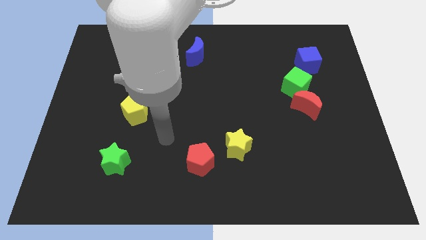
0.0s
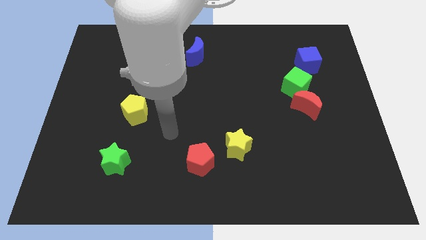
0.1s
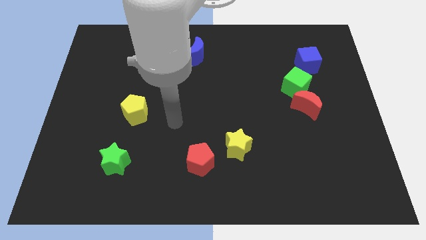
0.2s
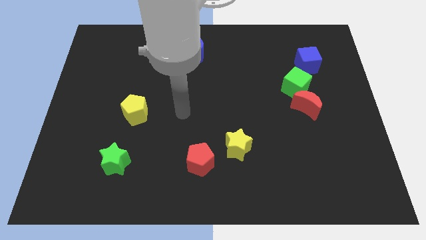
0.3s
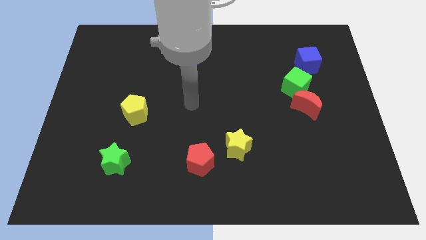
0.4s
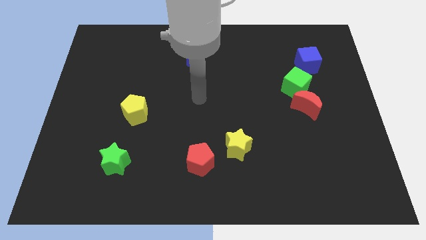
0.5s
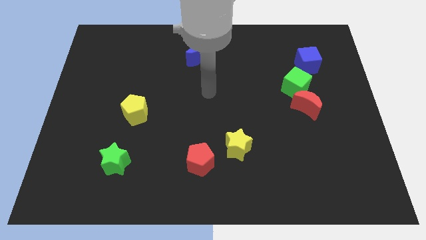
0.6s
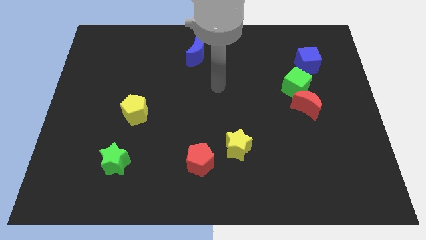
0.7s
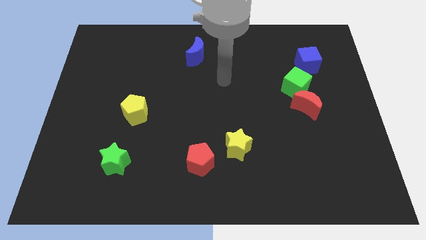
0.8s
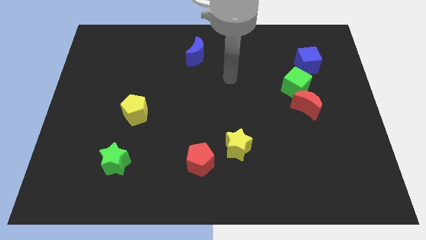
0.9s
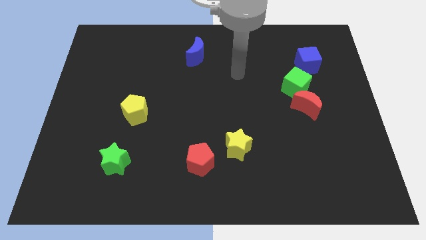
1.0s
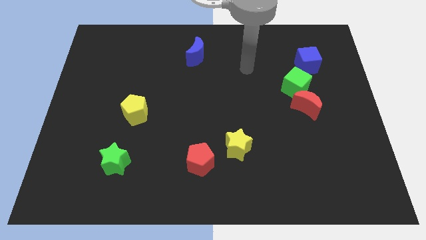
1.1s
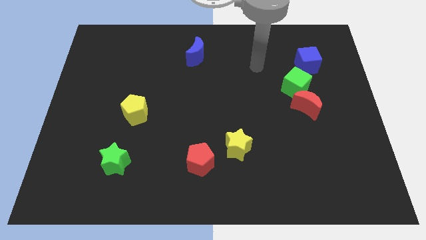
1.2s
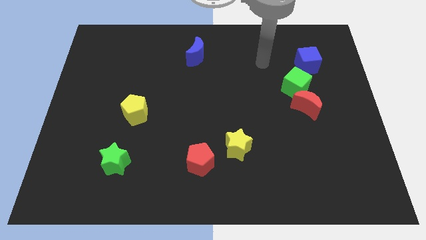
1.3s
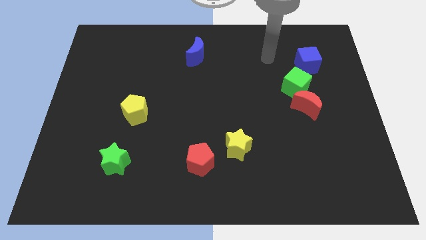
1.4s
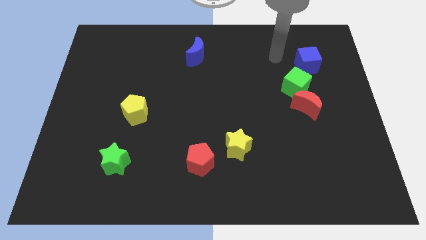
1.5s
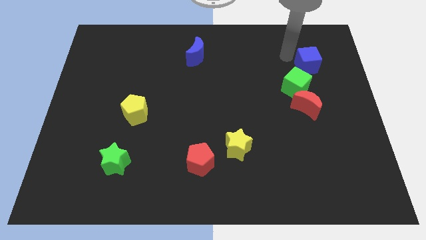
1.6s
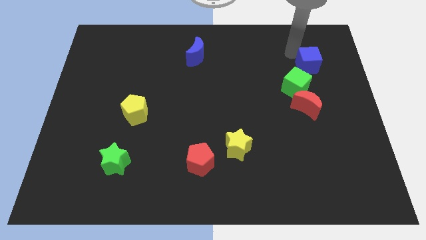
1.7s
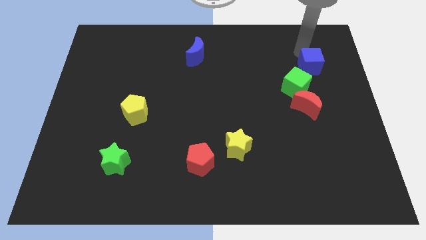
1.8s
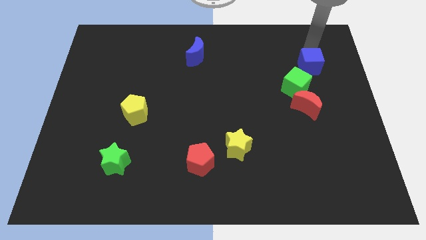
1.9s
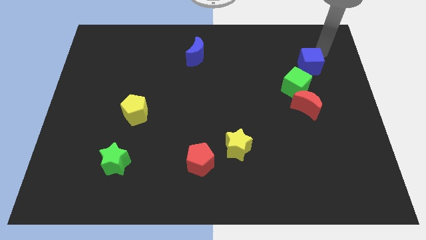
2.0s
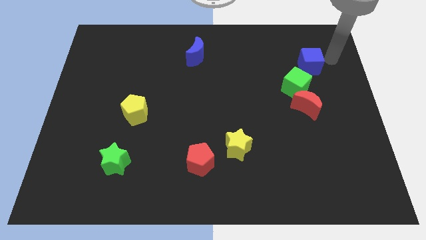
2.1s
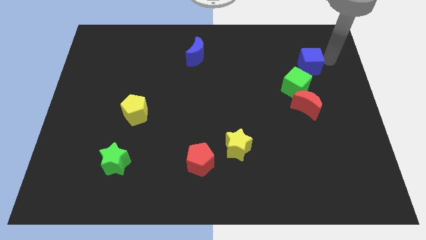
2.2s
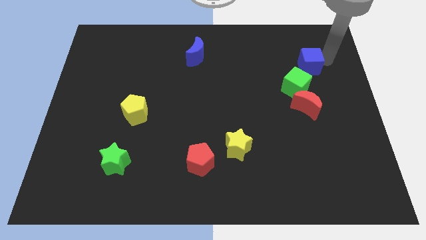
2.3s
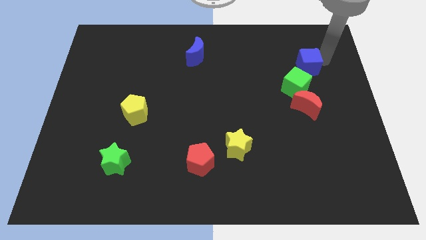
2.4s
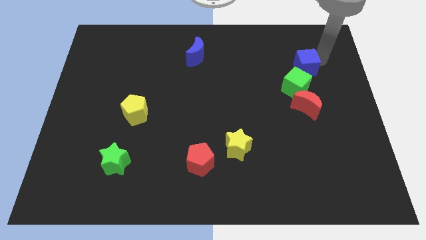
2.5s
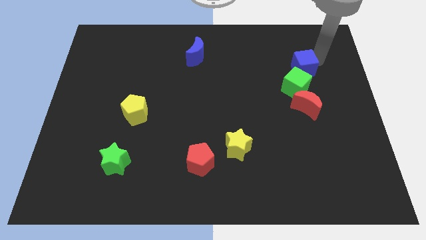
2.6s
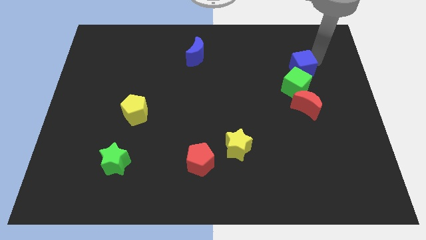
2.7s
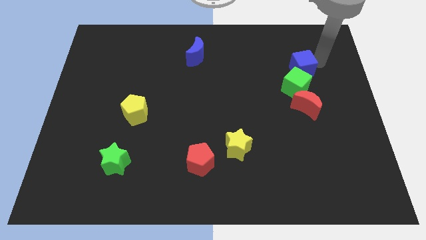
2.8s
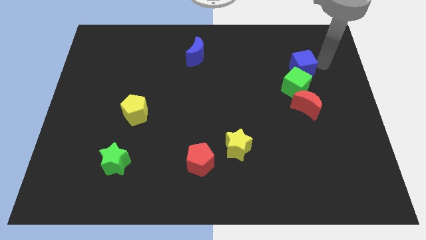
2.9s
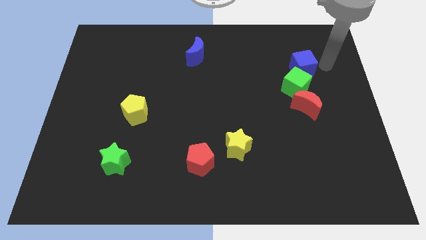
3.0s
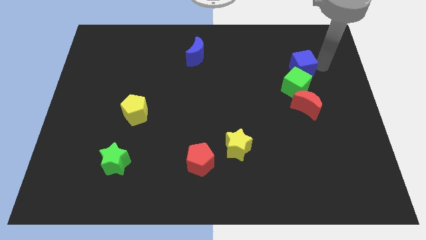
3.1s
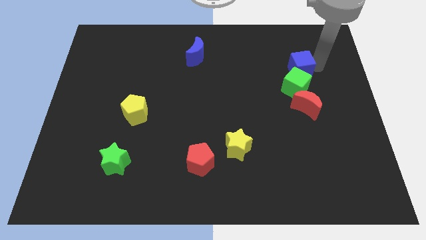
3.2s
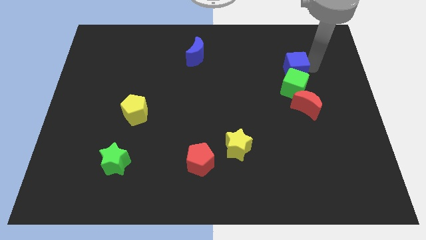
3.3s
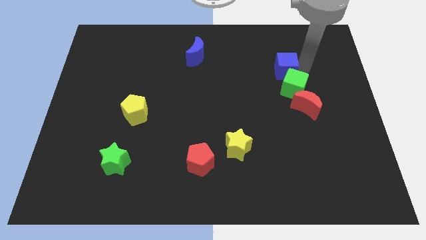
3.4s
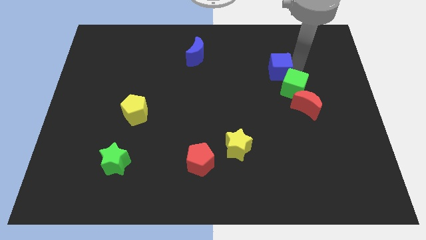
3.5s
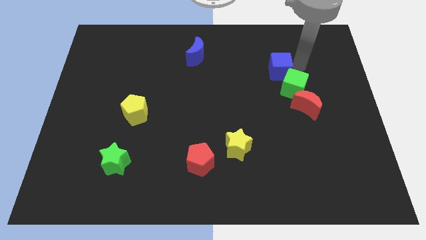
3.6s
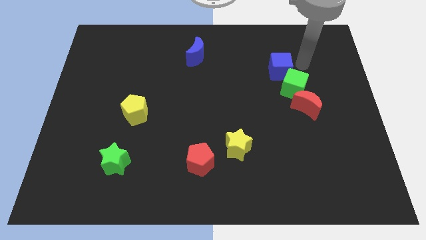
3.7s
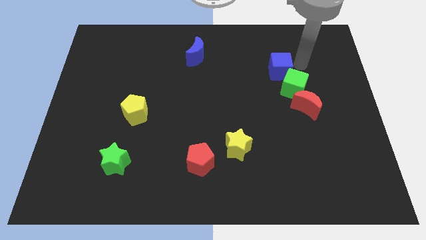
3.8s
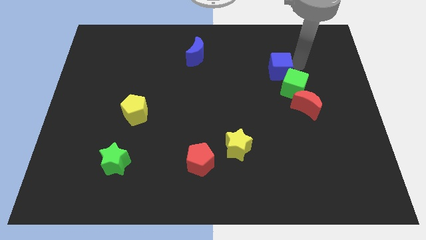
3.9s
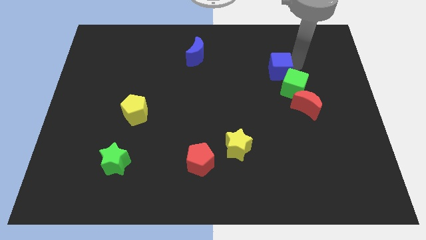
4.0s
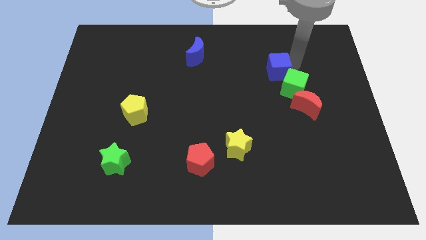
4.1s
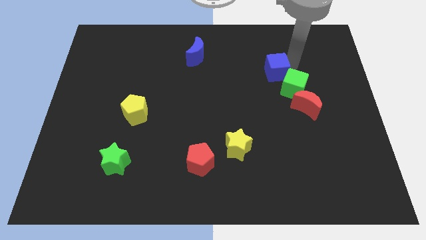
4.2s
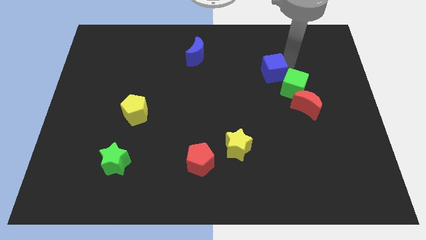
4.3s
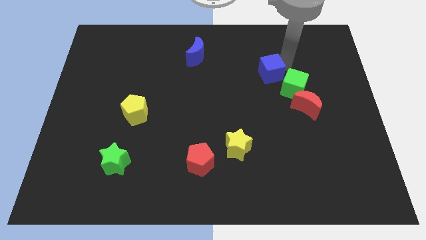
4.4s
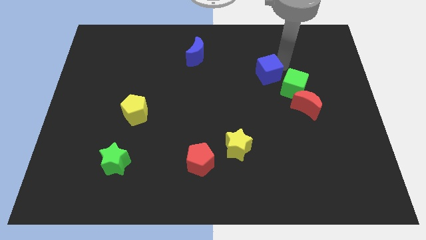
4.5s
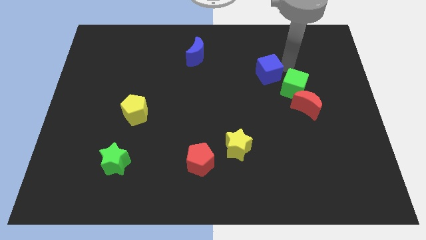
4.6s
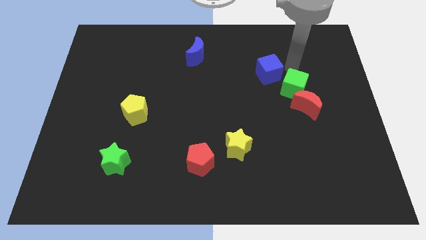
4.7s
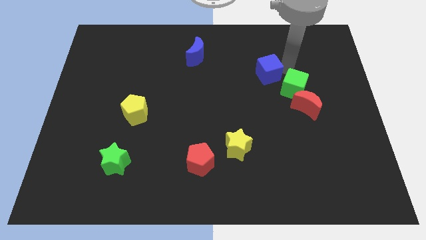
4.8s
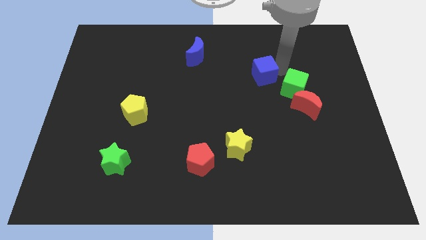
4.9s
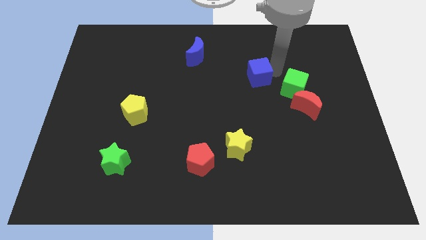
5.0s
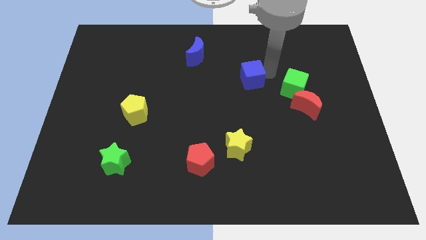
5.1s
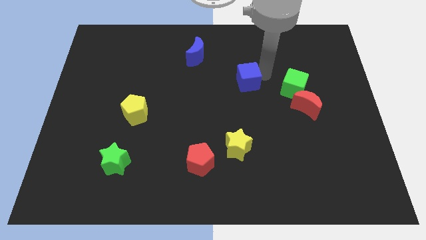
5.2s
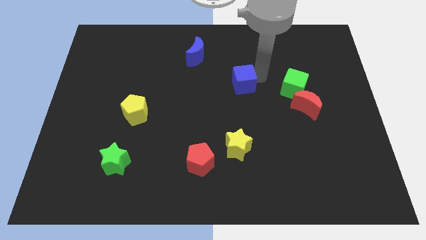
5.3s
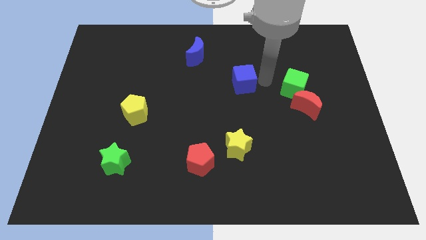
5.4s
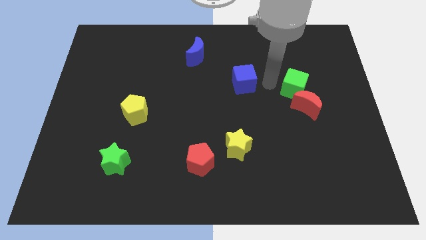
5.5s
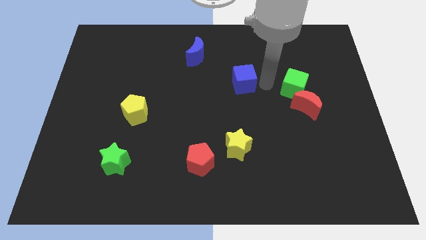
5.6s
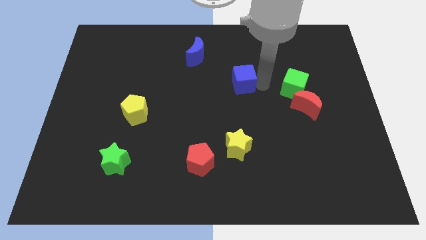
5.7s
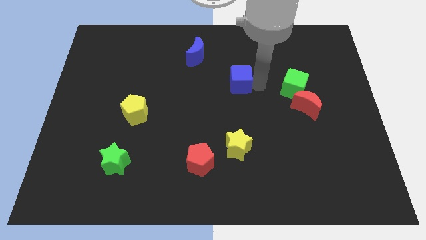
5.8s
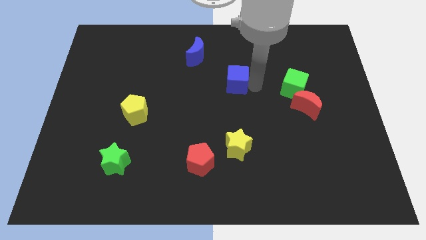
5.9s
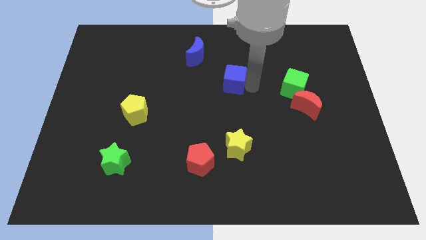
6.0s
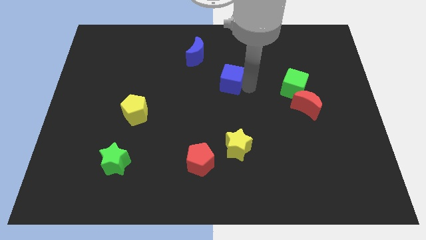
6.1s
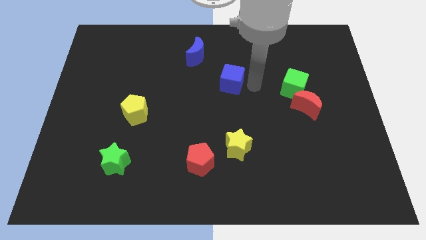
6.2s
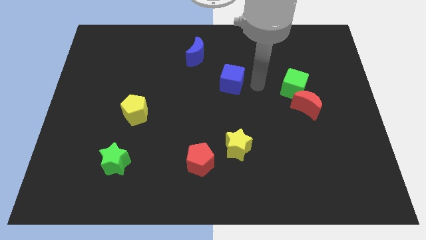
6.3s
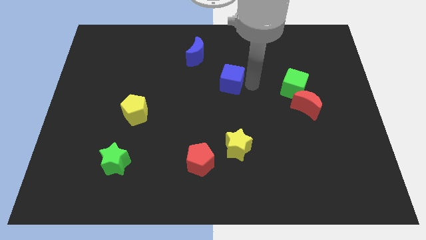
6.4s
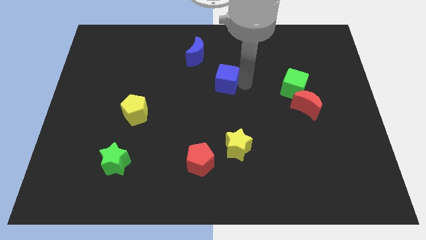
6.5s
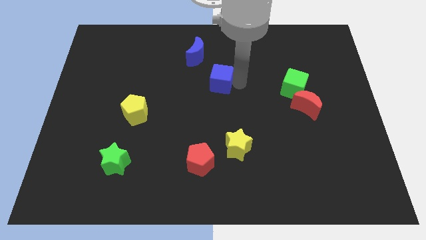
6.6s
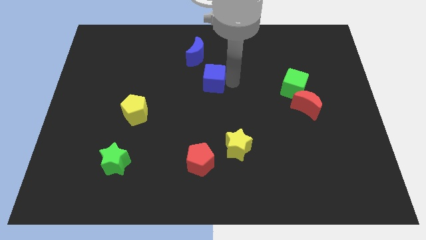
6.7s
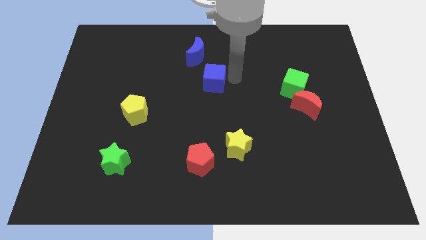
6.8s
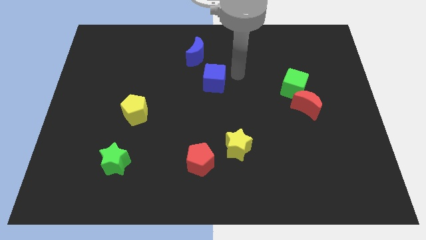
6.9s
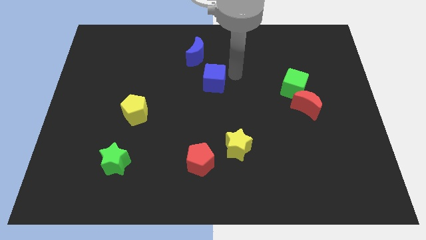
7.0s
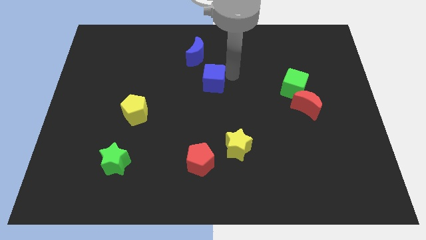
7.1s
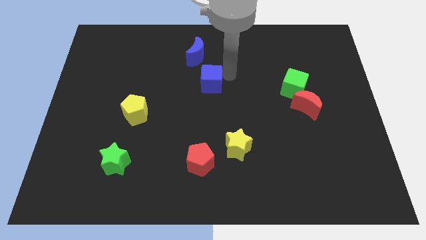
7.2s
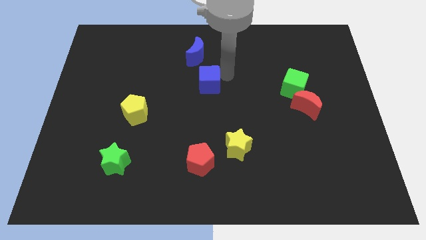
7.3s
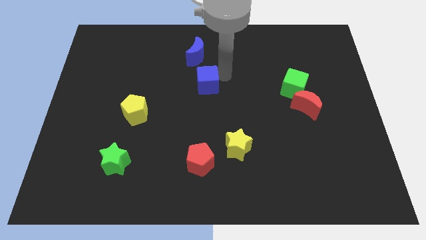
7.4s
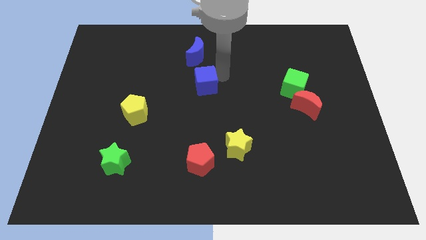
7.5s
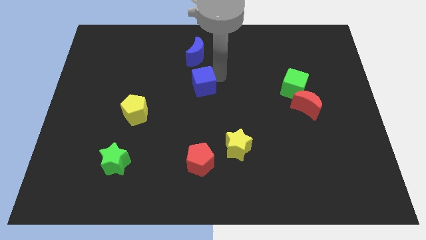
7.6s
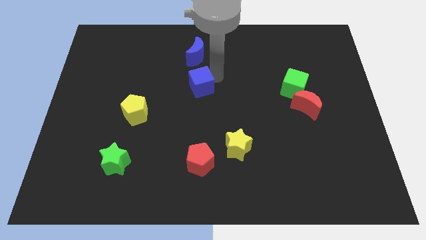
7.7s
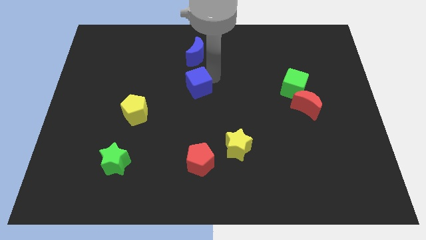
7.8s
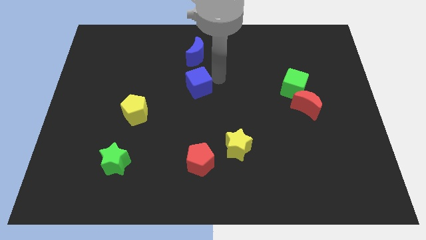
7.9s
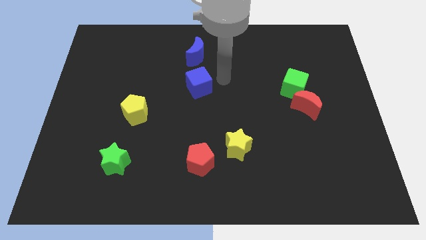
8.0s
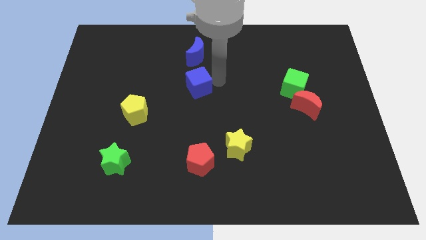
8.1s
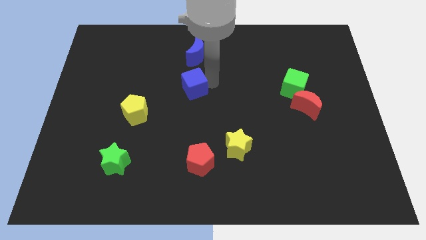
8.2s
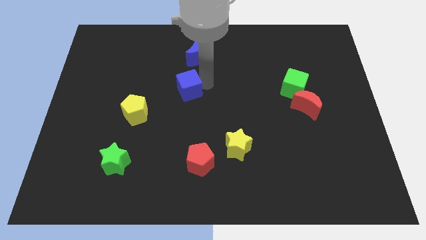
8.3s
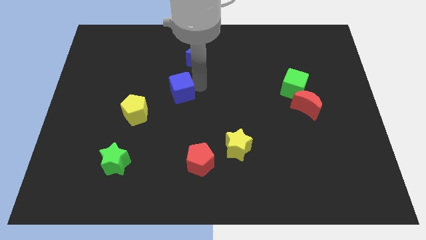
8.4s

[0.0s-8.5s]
push the blue cube to the top right side of the yellow pentagon
